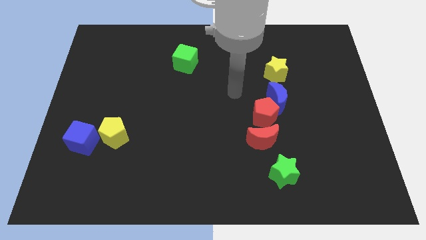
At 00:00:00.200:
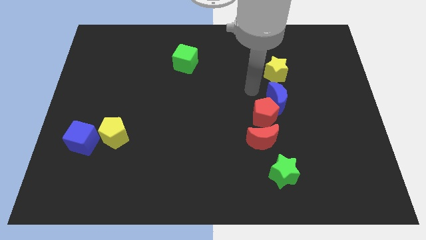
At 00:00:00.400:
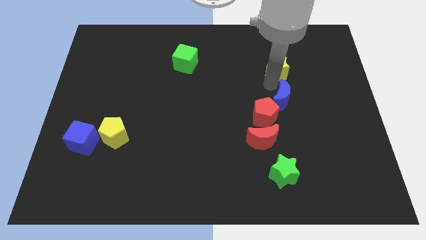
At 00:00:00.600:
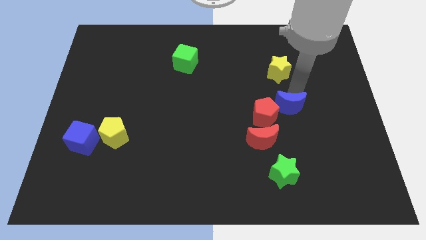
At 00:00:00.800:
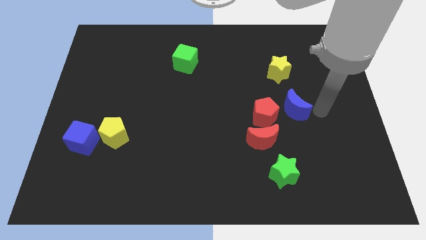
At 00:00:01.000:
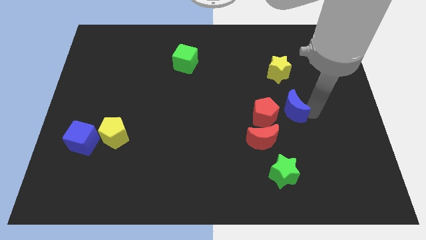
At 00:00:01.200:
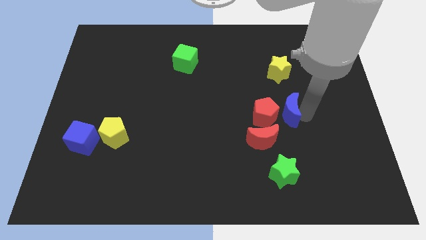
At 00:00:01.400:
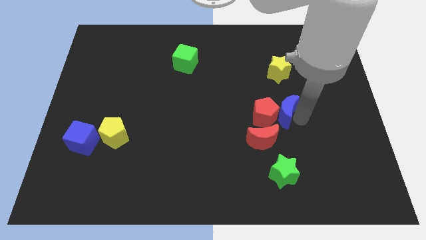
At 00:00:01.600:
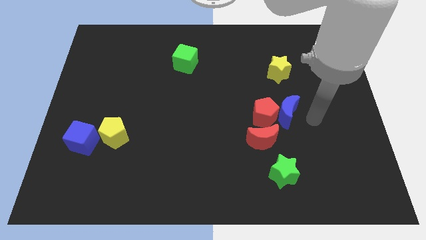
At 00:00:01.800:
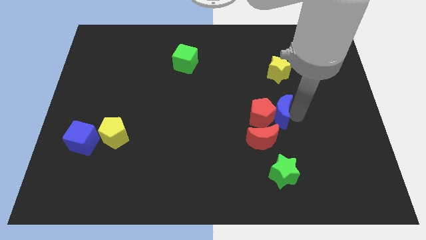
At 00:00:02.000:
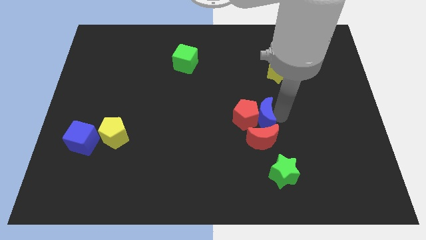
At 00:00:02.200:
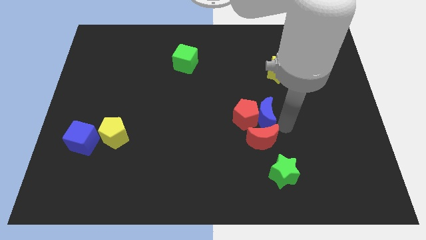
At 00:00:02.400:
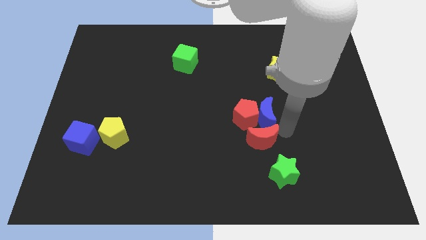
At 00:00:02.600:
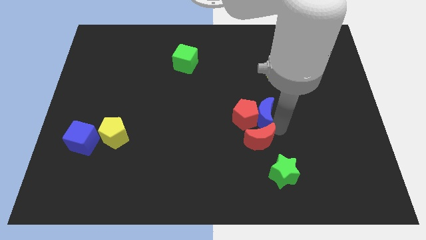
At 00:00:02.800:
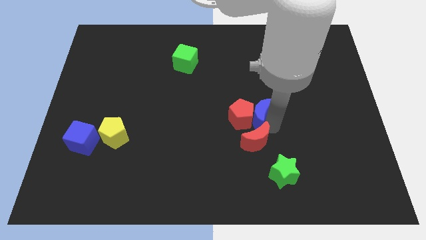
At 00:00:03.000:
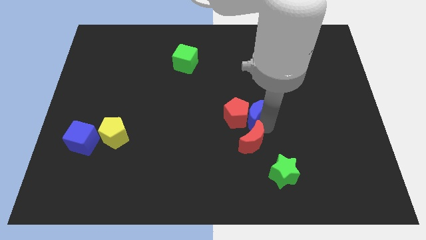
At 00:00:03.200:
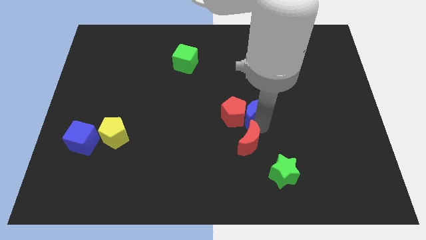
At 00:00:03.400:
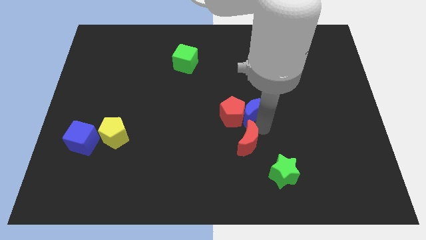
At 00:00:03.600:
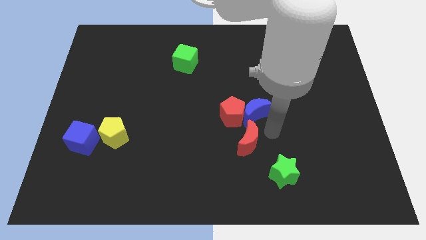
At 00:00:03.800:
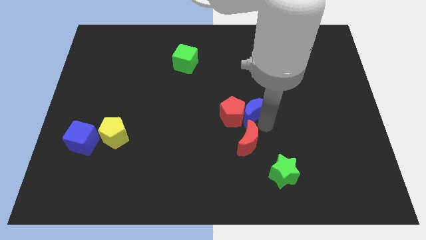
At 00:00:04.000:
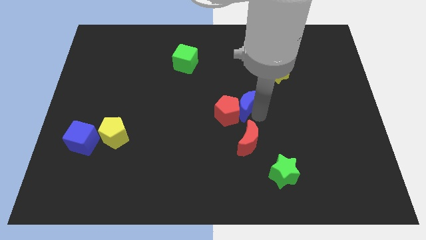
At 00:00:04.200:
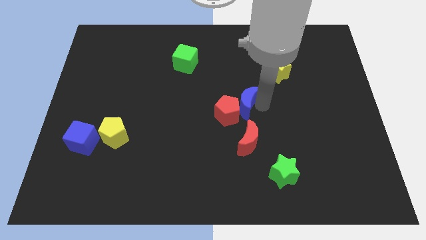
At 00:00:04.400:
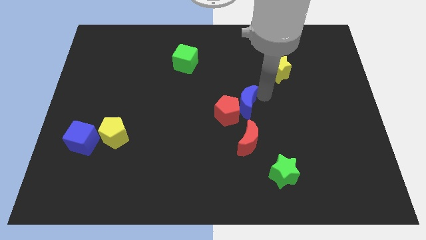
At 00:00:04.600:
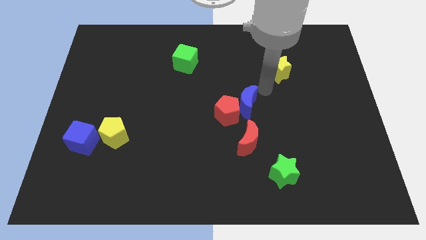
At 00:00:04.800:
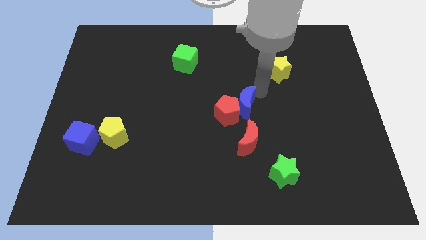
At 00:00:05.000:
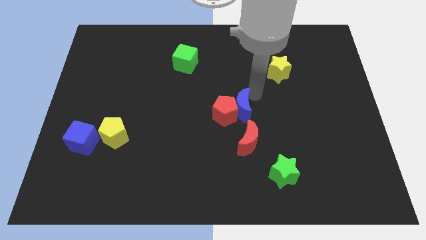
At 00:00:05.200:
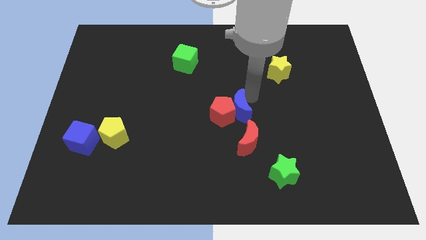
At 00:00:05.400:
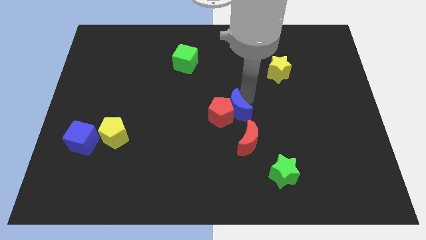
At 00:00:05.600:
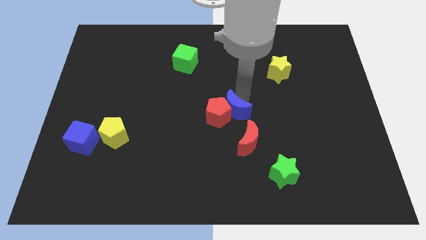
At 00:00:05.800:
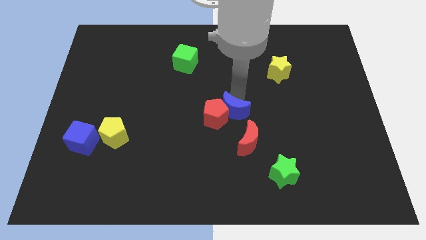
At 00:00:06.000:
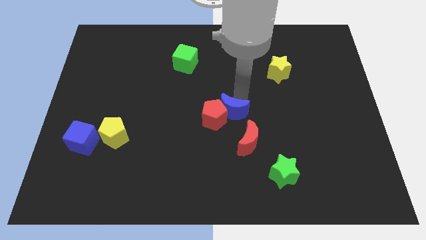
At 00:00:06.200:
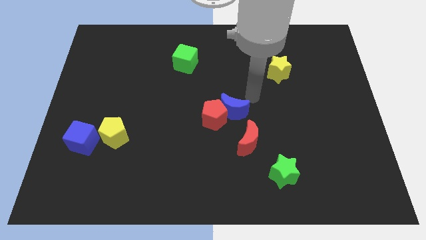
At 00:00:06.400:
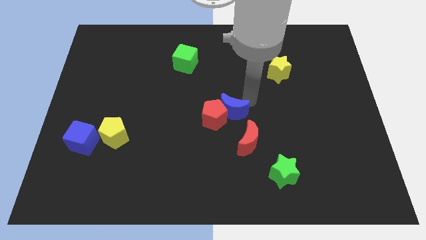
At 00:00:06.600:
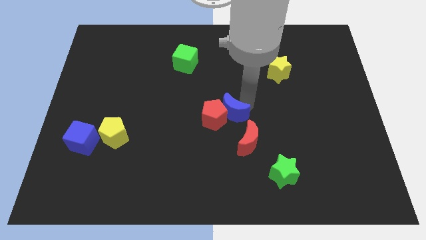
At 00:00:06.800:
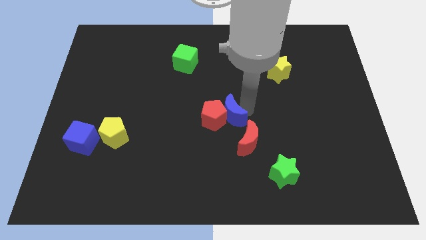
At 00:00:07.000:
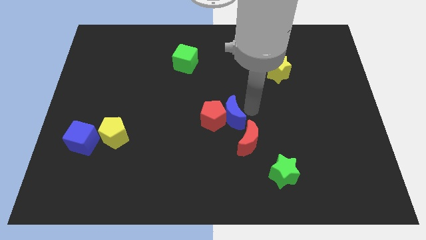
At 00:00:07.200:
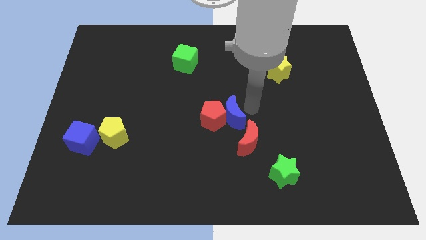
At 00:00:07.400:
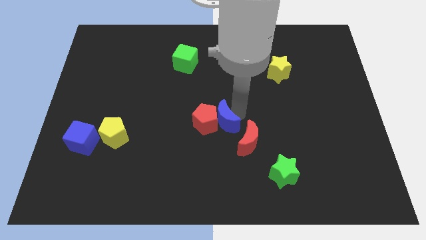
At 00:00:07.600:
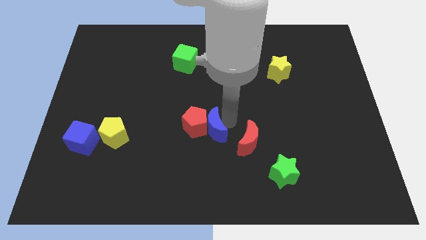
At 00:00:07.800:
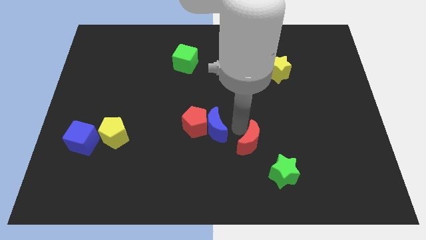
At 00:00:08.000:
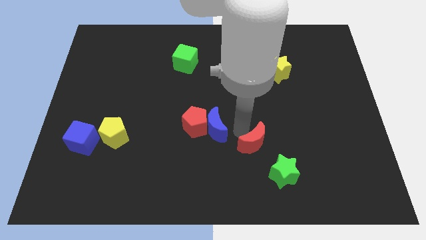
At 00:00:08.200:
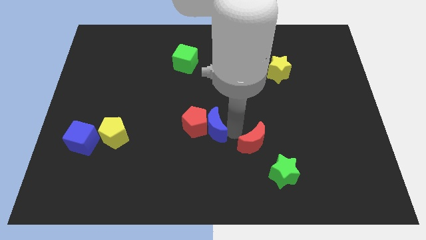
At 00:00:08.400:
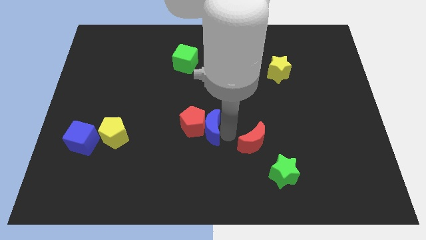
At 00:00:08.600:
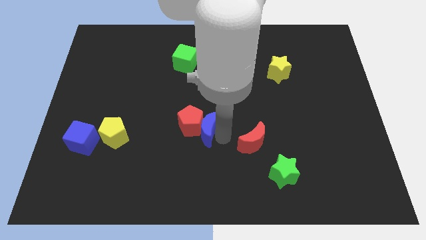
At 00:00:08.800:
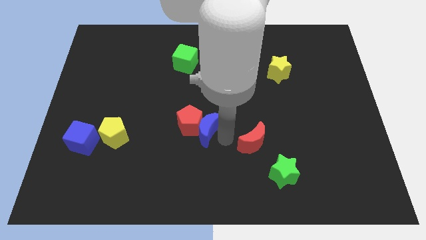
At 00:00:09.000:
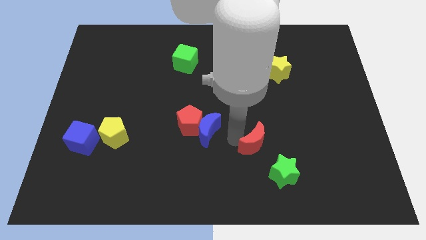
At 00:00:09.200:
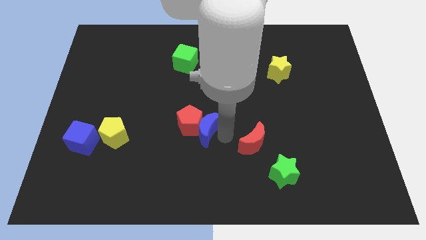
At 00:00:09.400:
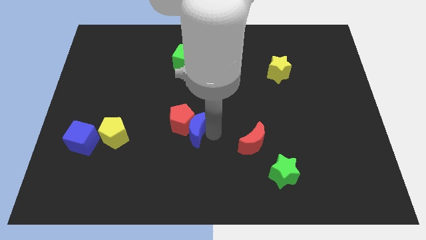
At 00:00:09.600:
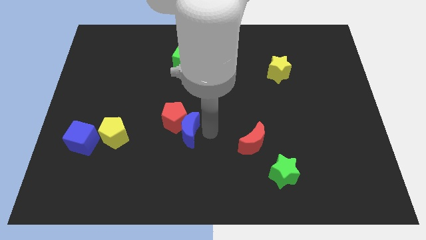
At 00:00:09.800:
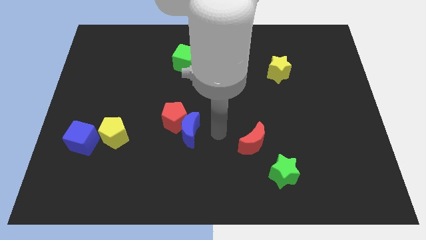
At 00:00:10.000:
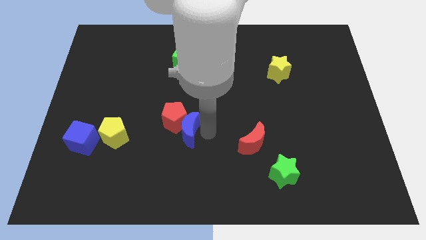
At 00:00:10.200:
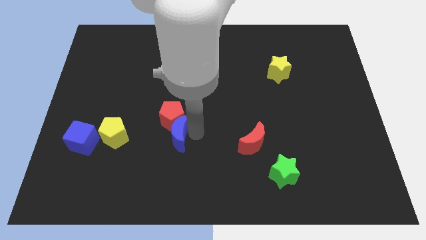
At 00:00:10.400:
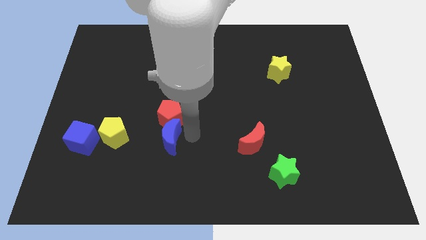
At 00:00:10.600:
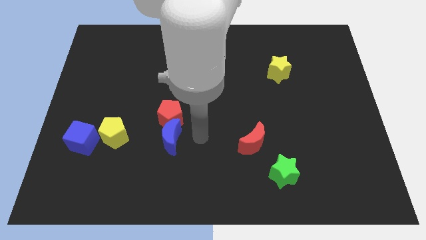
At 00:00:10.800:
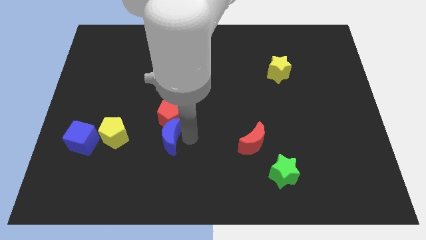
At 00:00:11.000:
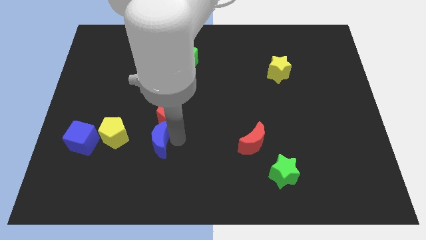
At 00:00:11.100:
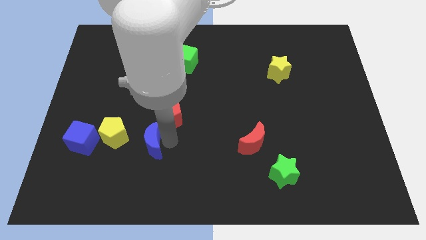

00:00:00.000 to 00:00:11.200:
put the blue moon right of the blue cube

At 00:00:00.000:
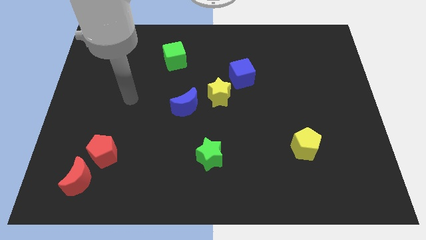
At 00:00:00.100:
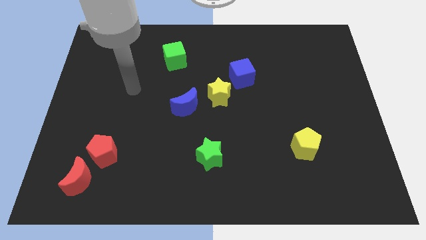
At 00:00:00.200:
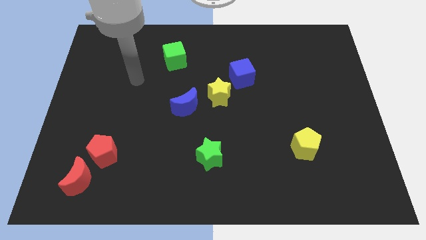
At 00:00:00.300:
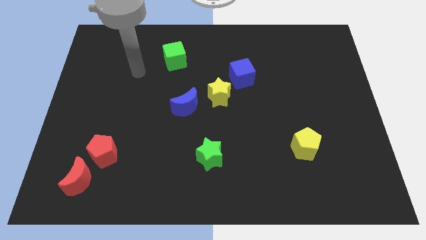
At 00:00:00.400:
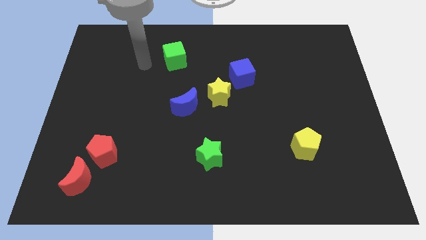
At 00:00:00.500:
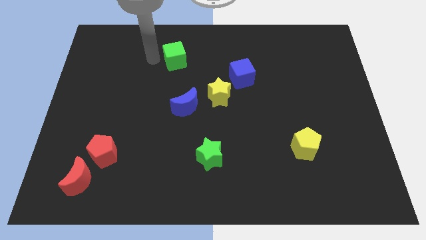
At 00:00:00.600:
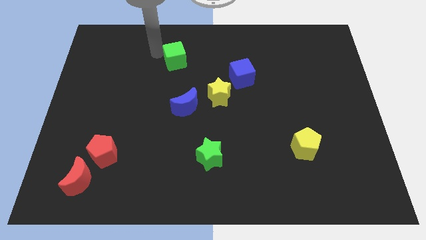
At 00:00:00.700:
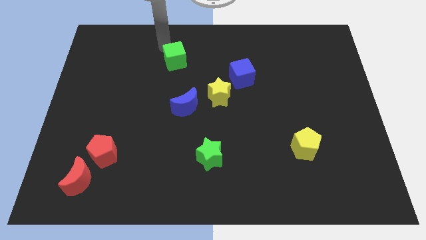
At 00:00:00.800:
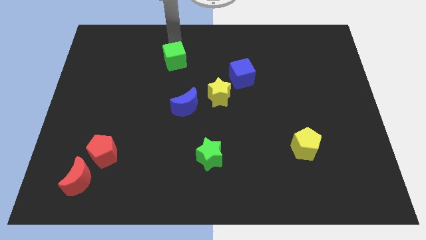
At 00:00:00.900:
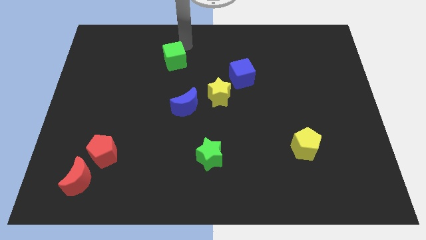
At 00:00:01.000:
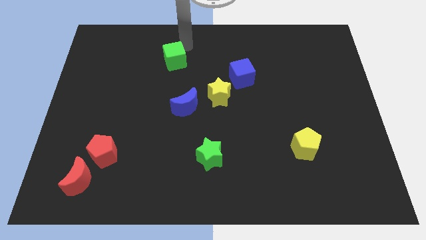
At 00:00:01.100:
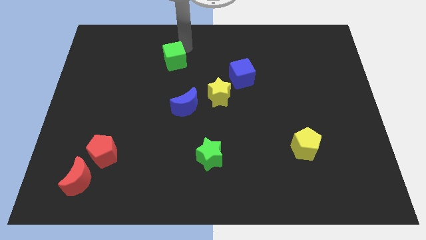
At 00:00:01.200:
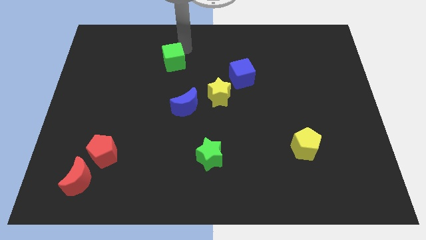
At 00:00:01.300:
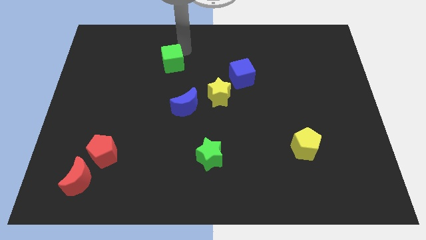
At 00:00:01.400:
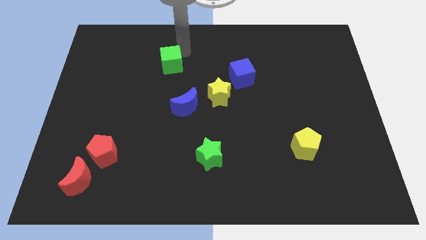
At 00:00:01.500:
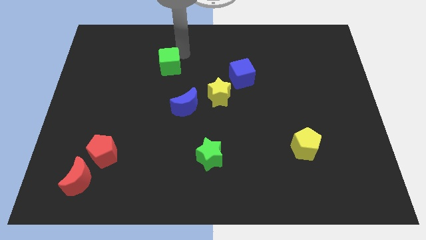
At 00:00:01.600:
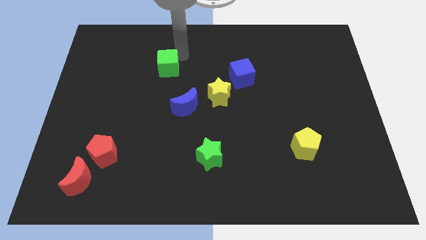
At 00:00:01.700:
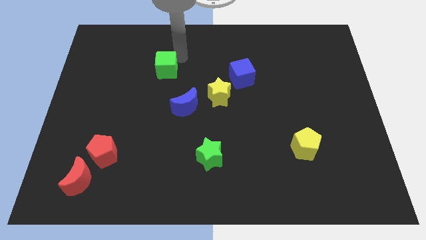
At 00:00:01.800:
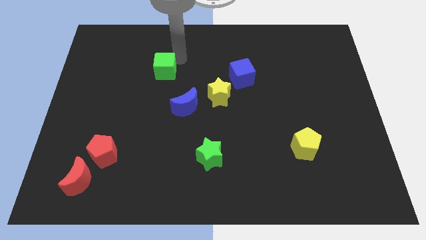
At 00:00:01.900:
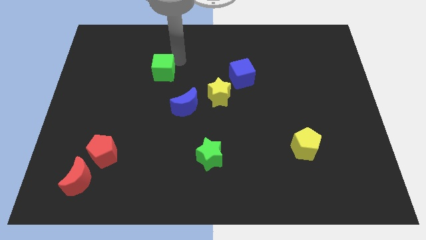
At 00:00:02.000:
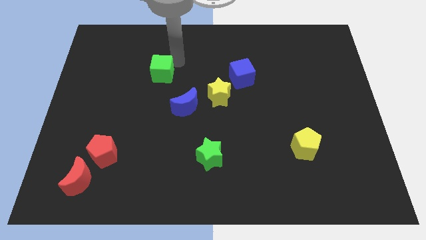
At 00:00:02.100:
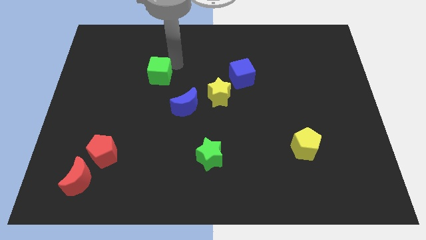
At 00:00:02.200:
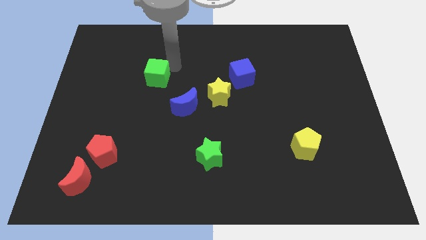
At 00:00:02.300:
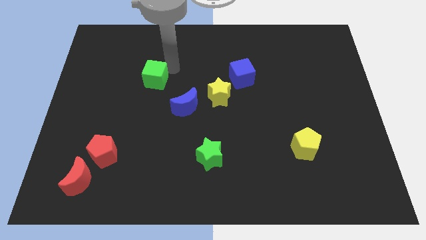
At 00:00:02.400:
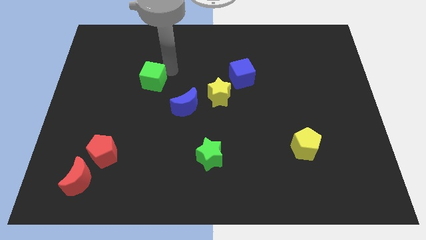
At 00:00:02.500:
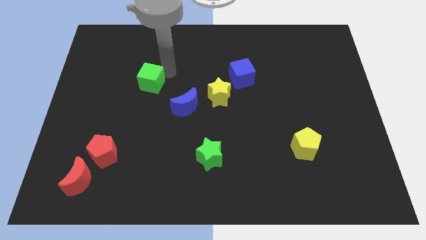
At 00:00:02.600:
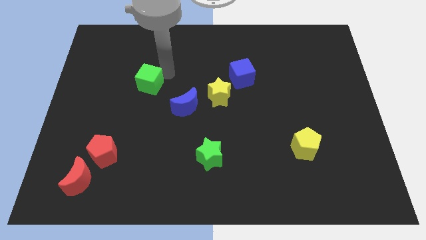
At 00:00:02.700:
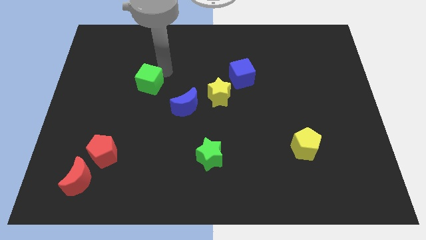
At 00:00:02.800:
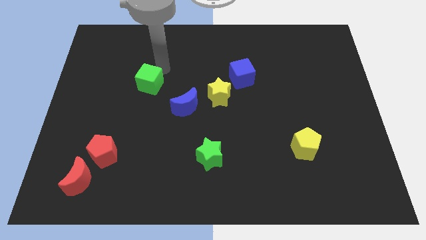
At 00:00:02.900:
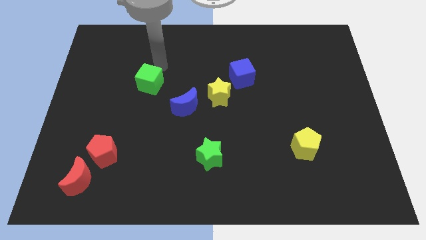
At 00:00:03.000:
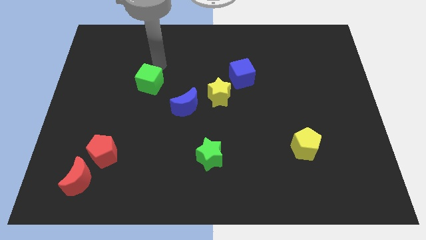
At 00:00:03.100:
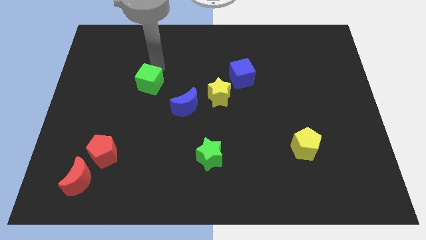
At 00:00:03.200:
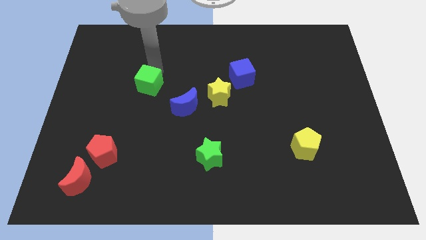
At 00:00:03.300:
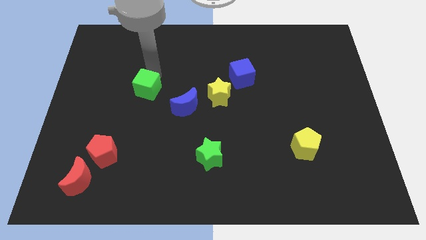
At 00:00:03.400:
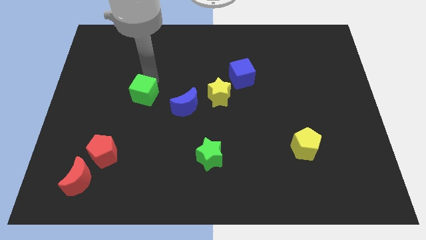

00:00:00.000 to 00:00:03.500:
slide the green cube left of the blue moon
